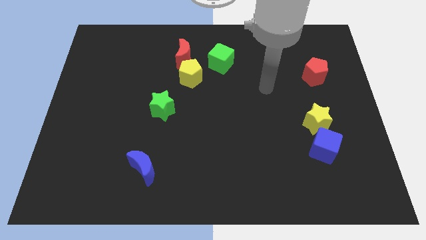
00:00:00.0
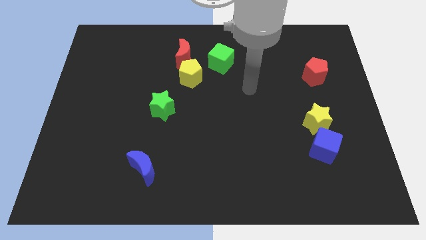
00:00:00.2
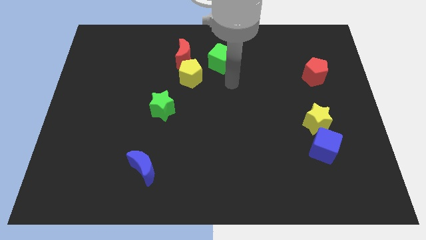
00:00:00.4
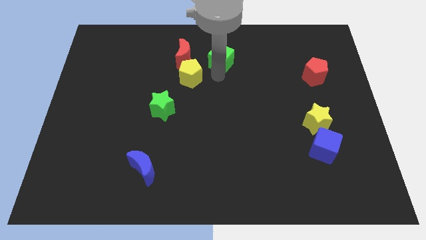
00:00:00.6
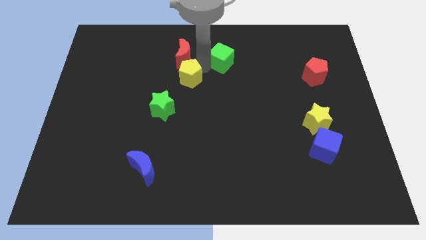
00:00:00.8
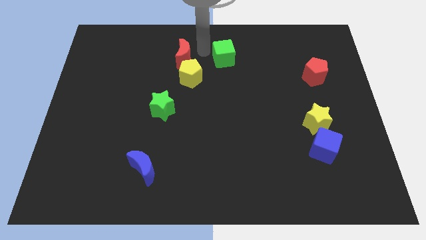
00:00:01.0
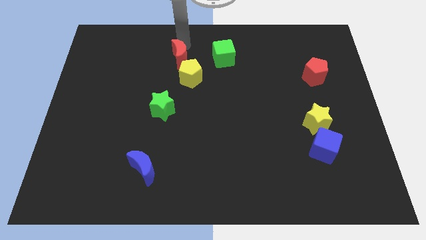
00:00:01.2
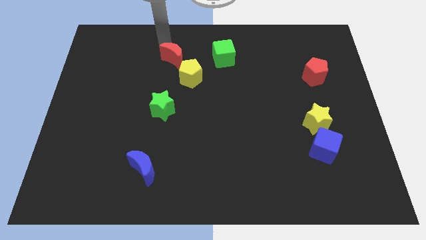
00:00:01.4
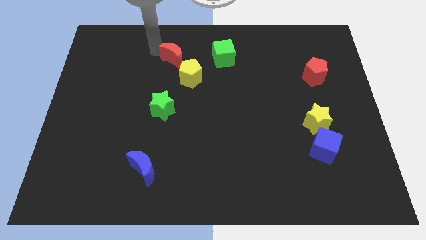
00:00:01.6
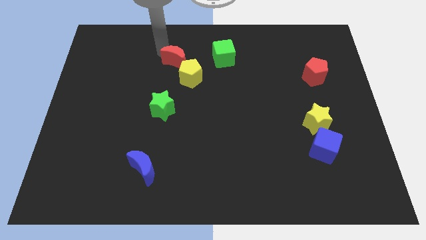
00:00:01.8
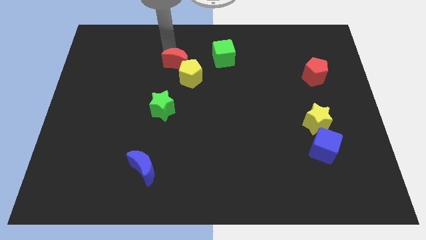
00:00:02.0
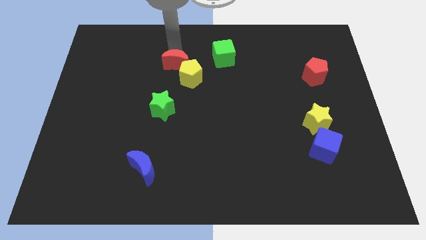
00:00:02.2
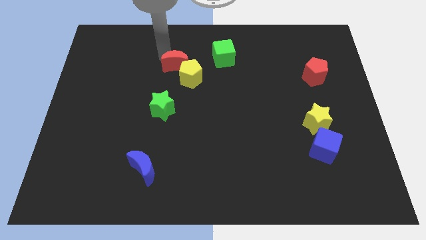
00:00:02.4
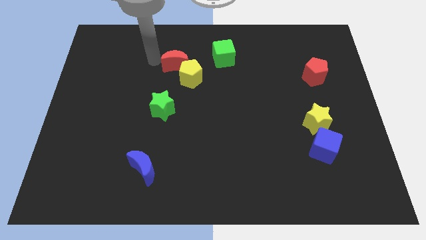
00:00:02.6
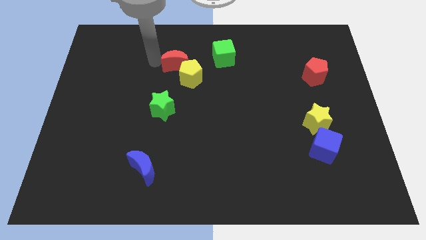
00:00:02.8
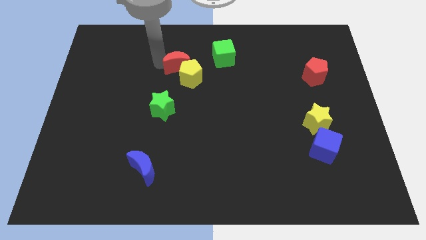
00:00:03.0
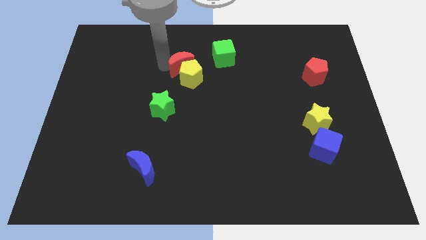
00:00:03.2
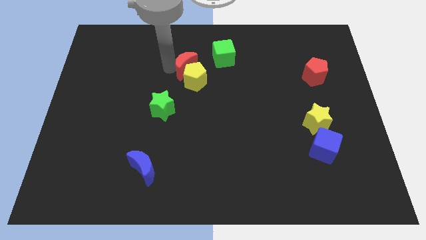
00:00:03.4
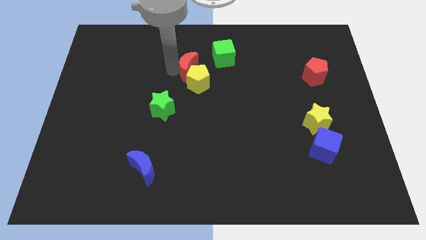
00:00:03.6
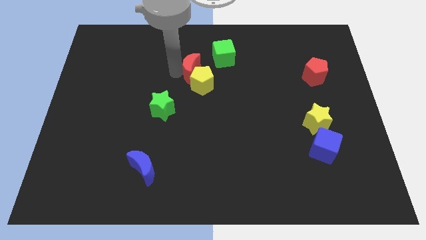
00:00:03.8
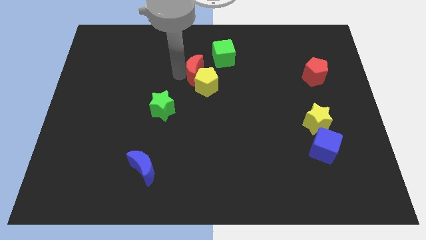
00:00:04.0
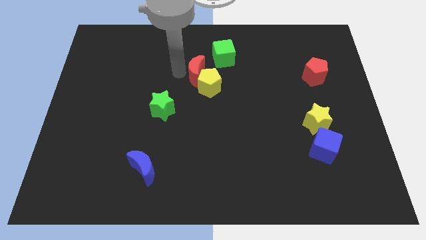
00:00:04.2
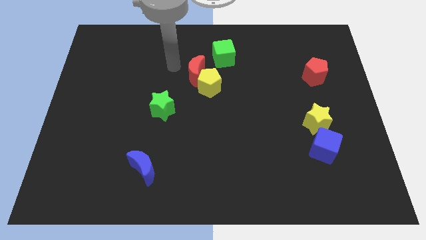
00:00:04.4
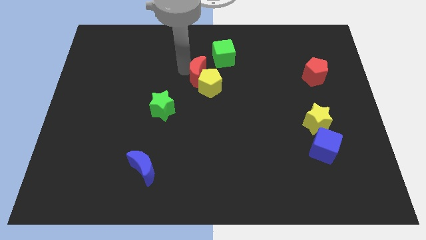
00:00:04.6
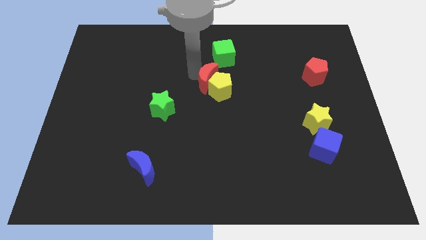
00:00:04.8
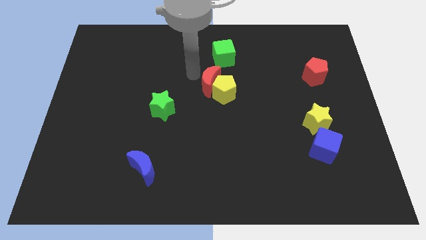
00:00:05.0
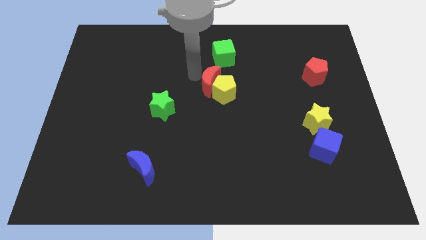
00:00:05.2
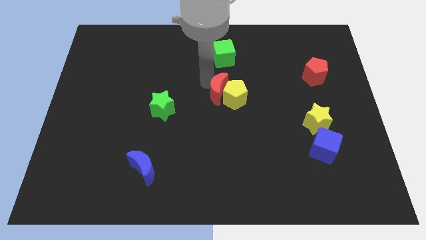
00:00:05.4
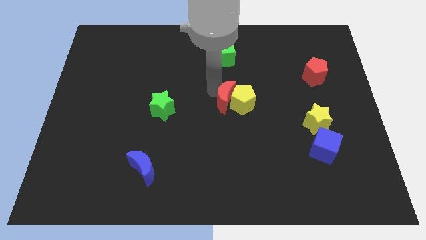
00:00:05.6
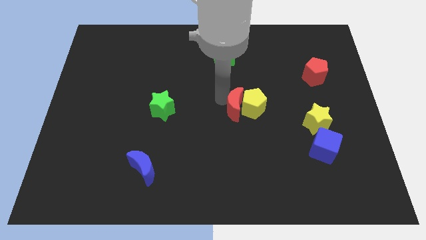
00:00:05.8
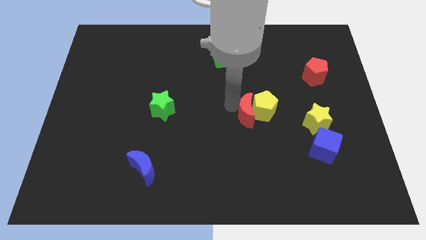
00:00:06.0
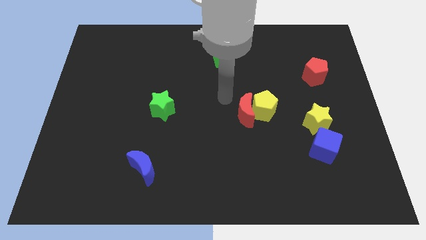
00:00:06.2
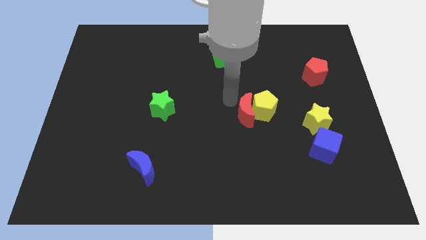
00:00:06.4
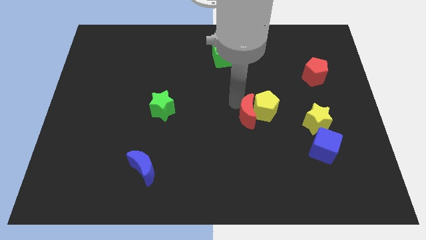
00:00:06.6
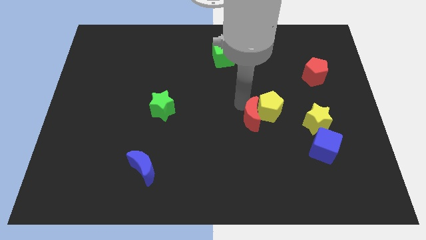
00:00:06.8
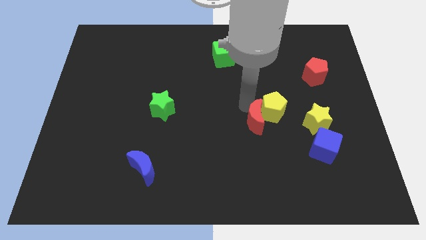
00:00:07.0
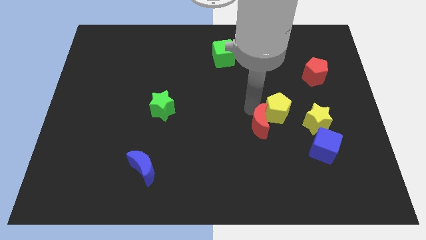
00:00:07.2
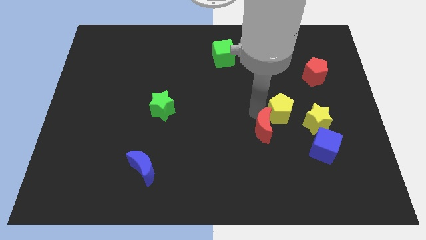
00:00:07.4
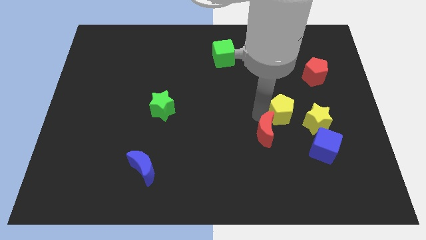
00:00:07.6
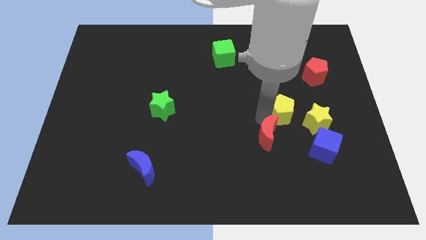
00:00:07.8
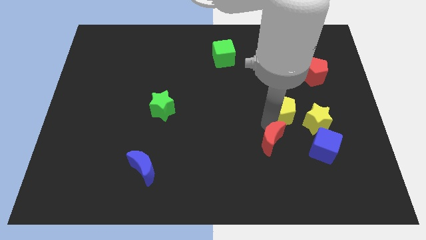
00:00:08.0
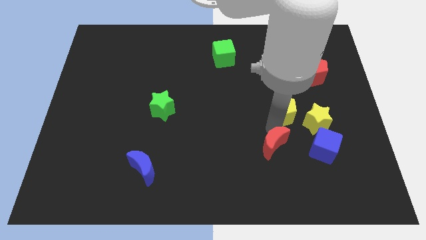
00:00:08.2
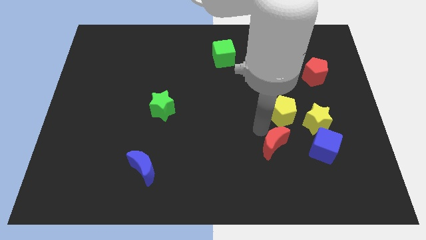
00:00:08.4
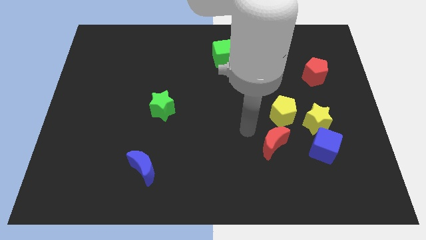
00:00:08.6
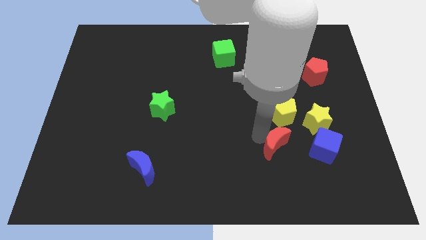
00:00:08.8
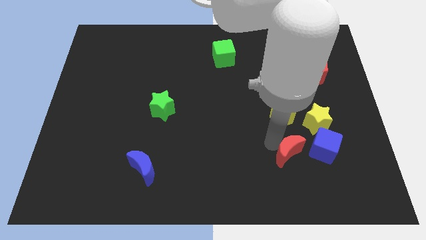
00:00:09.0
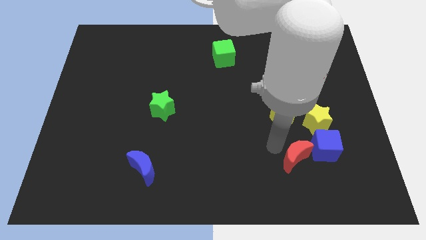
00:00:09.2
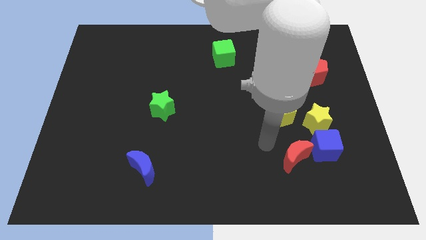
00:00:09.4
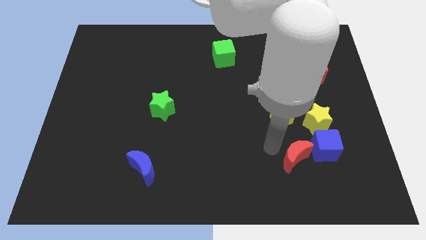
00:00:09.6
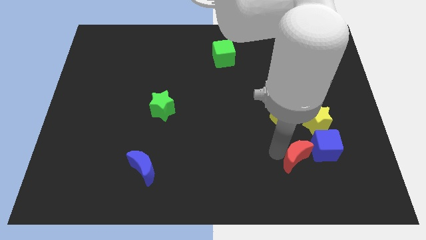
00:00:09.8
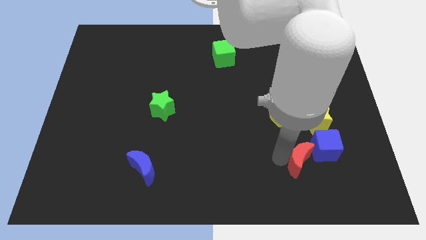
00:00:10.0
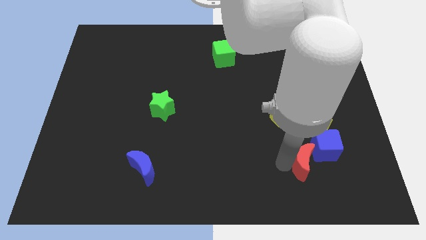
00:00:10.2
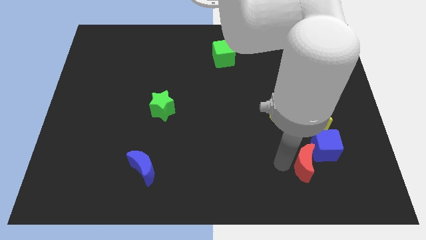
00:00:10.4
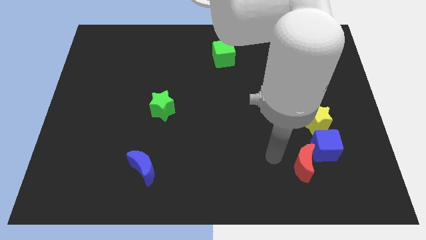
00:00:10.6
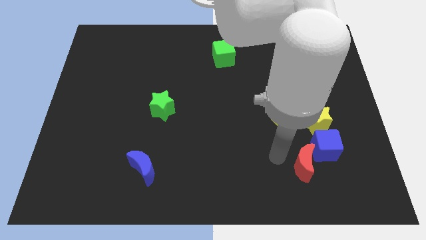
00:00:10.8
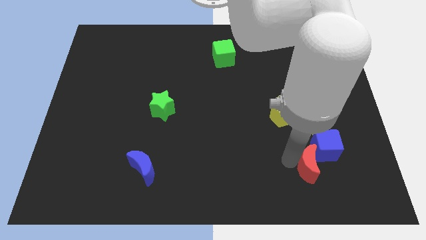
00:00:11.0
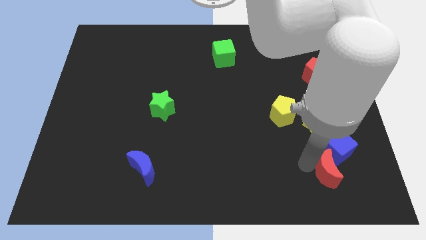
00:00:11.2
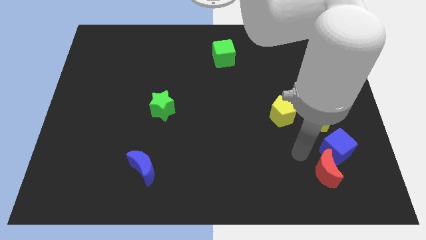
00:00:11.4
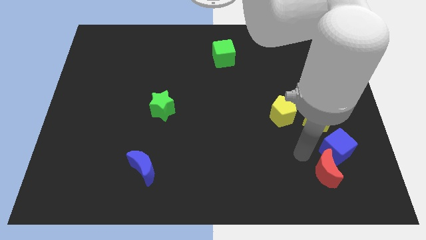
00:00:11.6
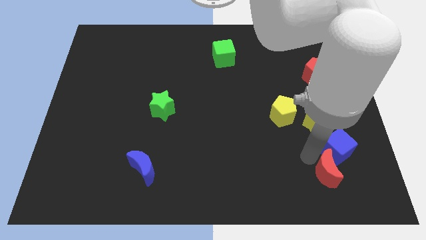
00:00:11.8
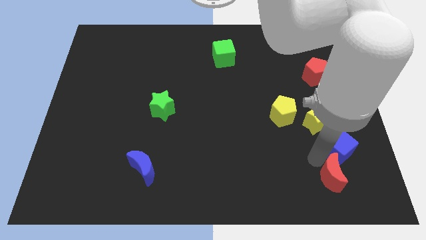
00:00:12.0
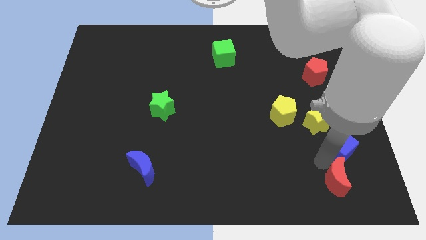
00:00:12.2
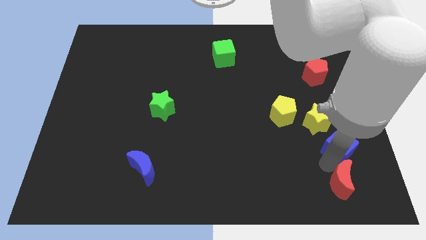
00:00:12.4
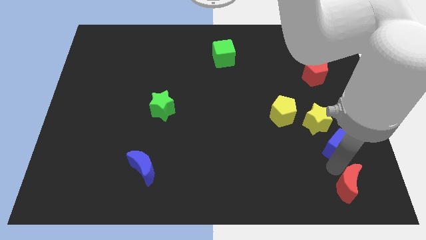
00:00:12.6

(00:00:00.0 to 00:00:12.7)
slide the red moon to the bottom right corner

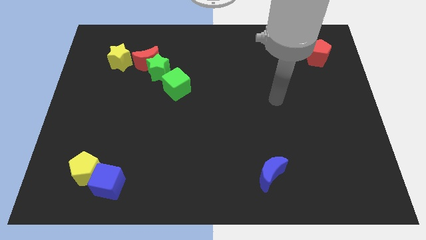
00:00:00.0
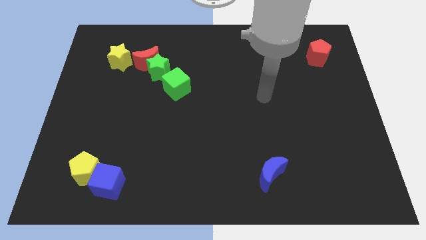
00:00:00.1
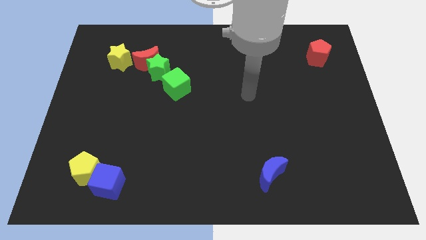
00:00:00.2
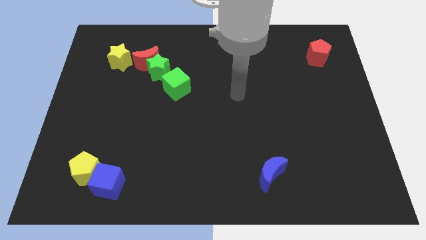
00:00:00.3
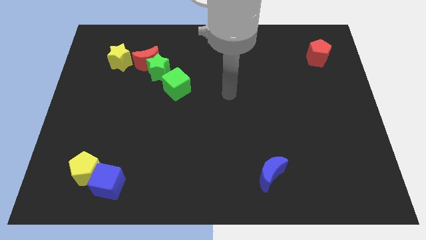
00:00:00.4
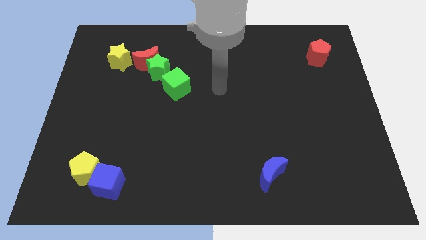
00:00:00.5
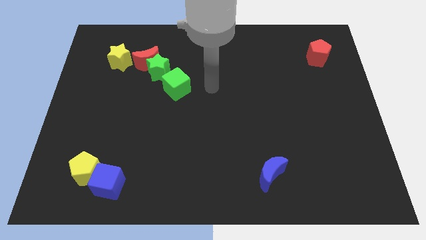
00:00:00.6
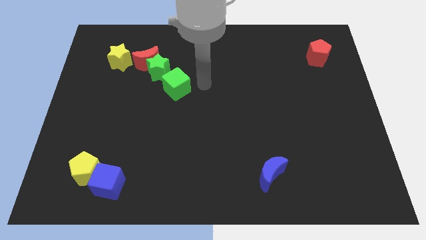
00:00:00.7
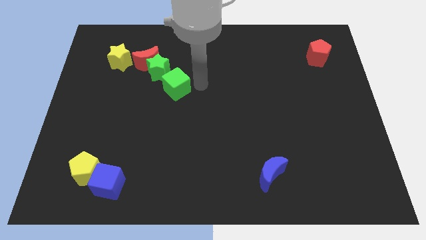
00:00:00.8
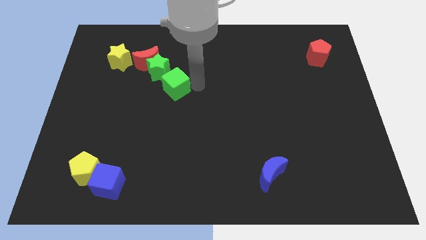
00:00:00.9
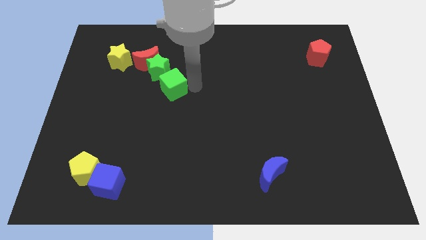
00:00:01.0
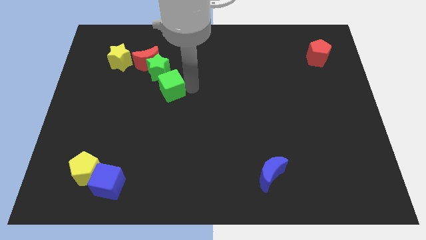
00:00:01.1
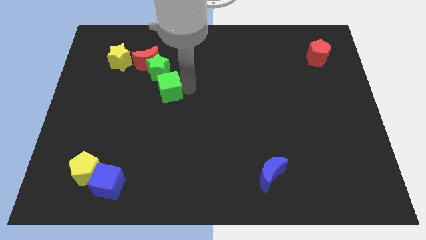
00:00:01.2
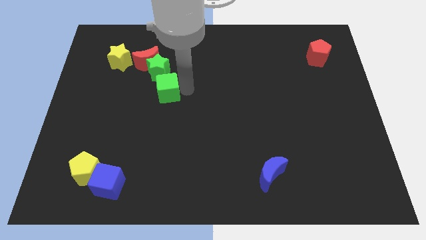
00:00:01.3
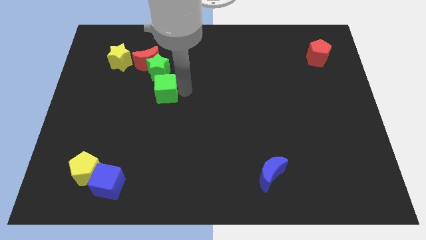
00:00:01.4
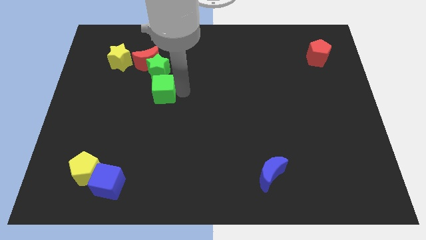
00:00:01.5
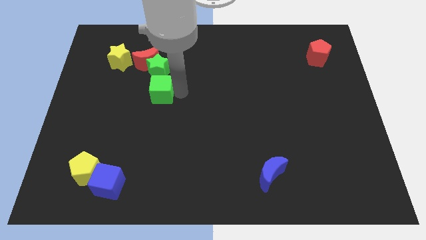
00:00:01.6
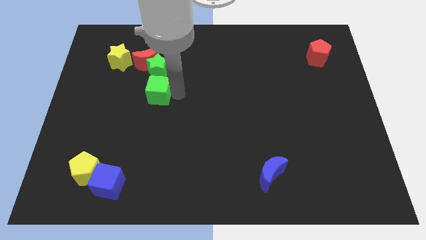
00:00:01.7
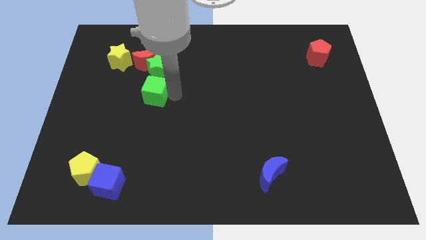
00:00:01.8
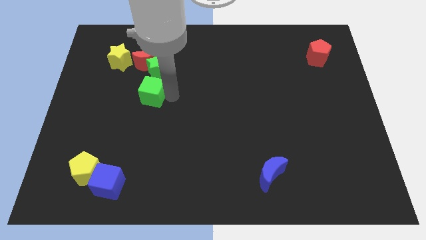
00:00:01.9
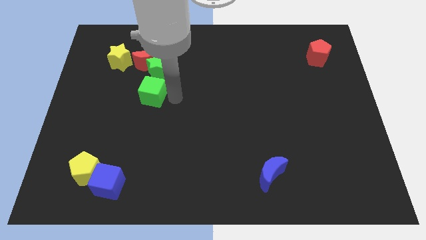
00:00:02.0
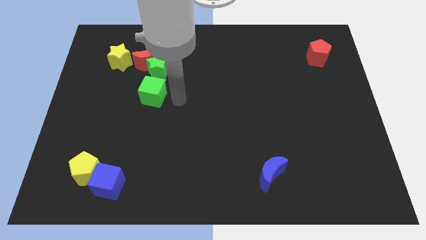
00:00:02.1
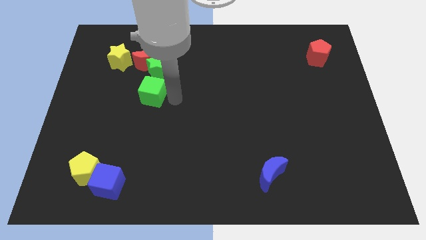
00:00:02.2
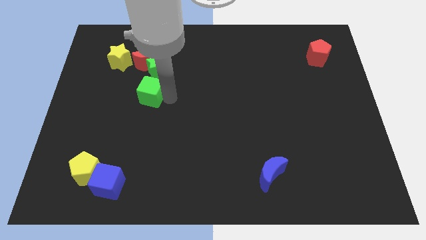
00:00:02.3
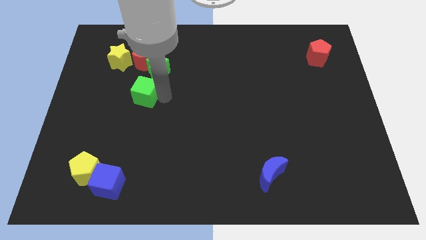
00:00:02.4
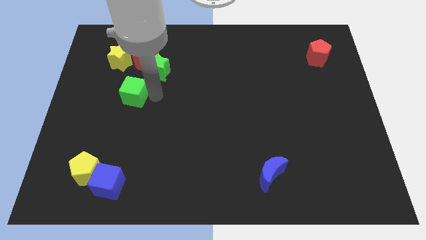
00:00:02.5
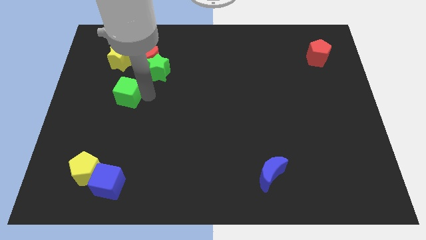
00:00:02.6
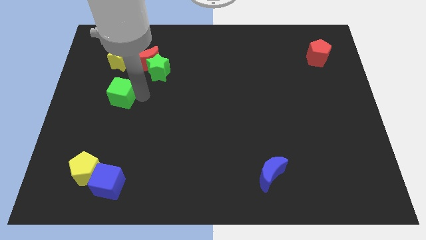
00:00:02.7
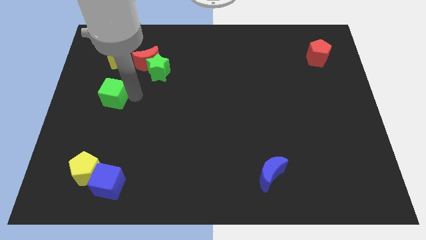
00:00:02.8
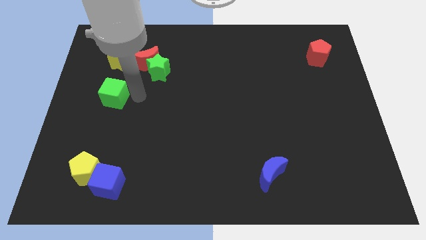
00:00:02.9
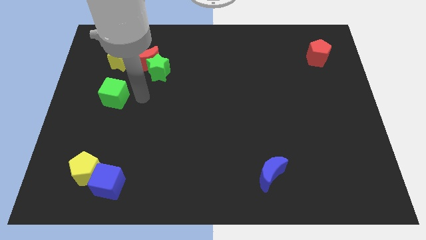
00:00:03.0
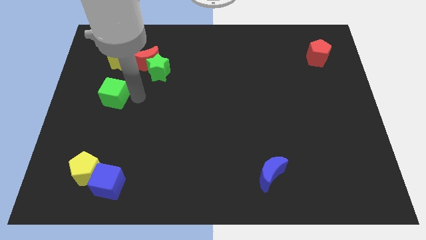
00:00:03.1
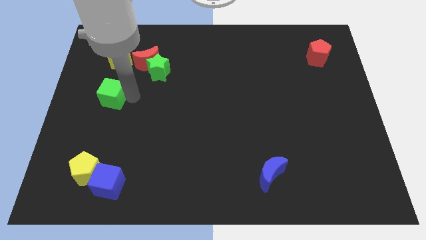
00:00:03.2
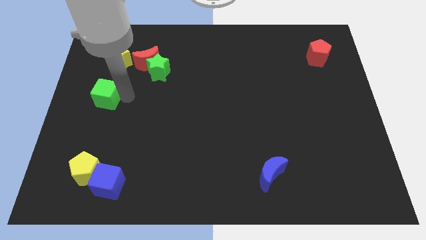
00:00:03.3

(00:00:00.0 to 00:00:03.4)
push the green cube to the left side of the board
